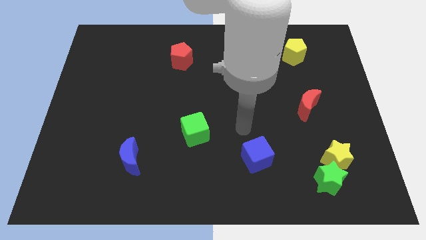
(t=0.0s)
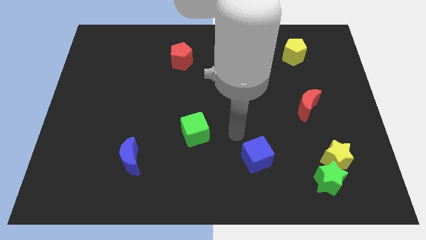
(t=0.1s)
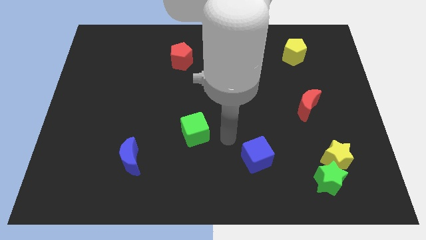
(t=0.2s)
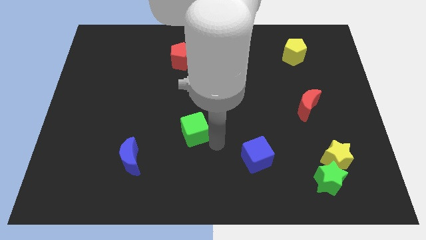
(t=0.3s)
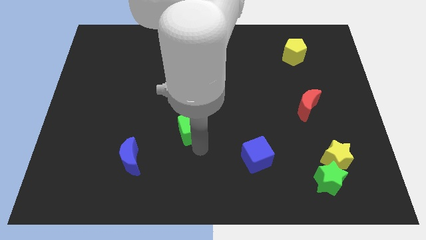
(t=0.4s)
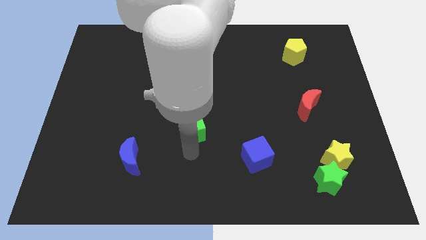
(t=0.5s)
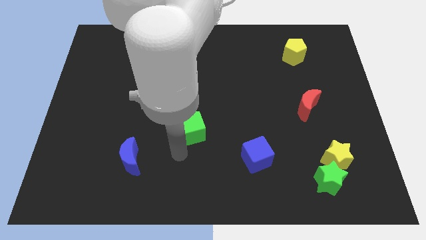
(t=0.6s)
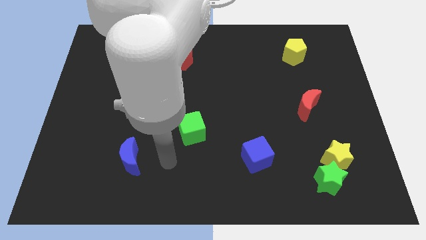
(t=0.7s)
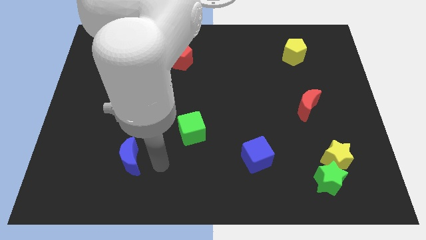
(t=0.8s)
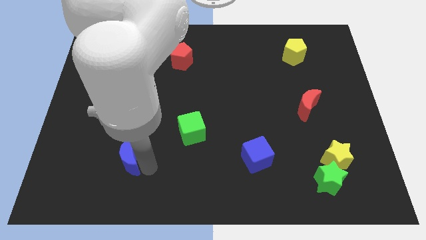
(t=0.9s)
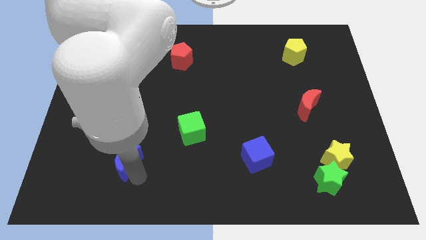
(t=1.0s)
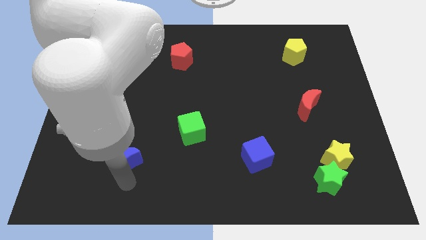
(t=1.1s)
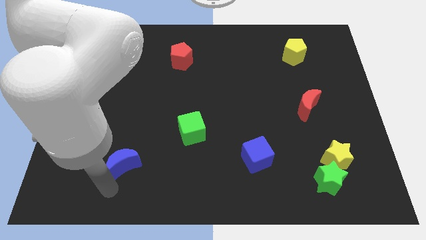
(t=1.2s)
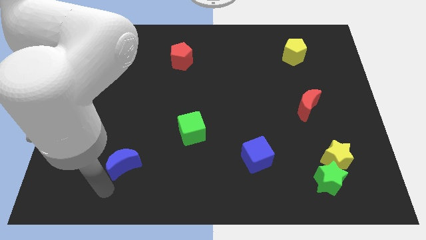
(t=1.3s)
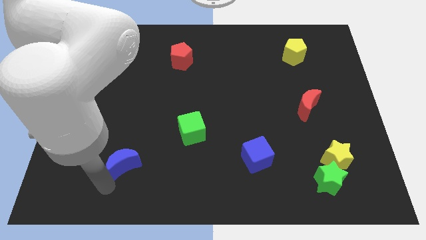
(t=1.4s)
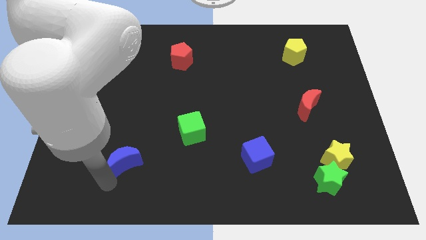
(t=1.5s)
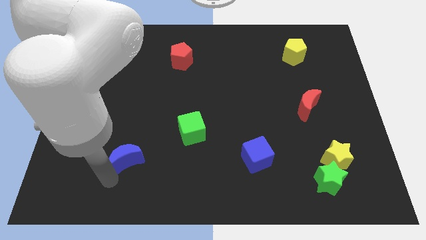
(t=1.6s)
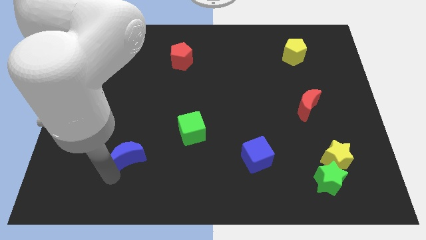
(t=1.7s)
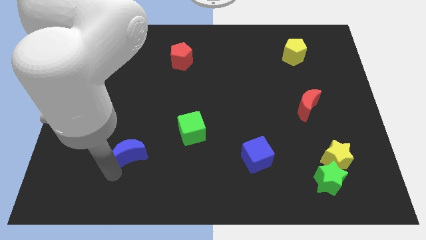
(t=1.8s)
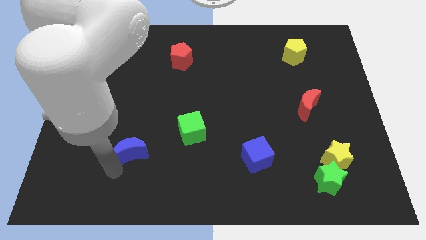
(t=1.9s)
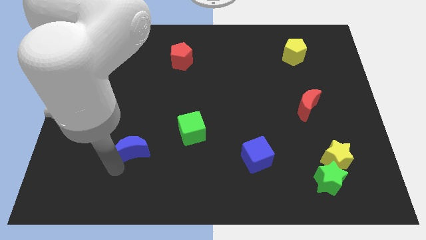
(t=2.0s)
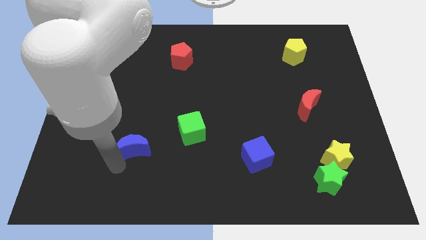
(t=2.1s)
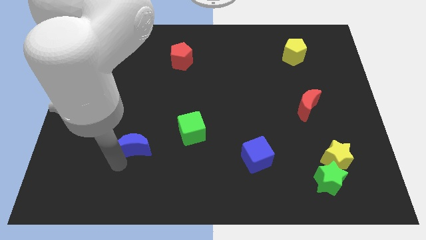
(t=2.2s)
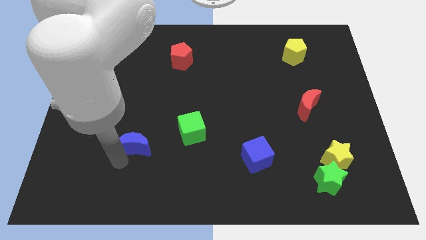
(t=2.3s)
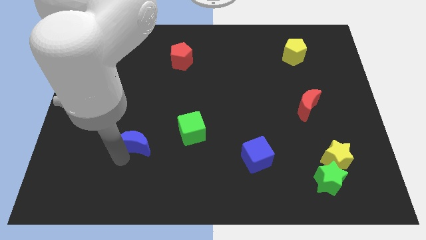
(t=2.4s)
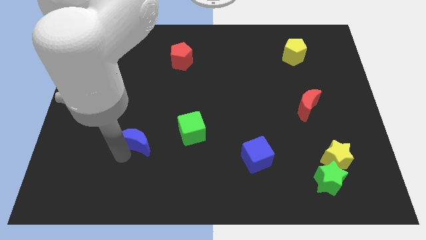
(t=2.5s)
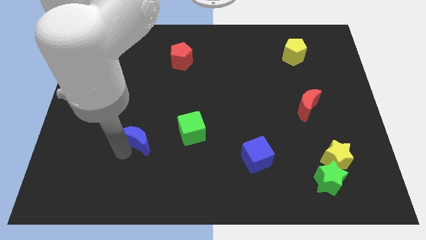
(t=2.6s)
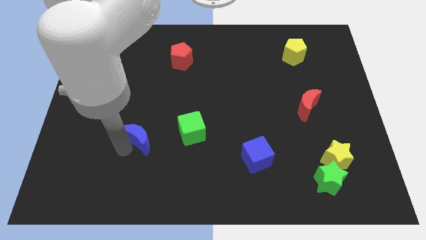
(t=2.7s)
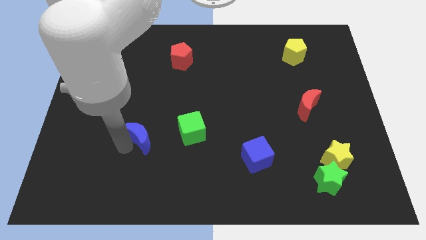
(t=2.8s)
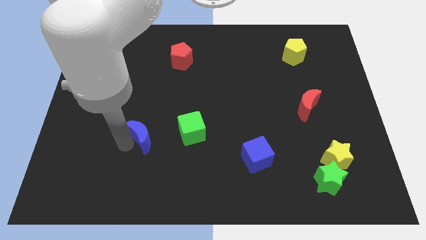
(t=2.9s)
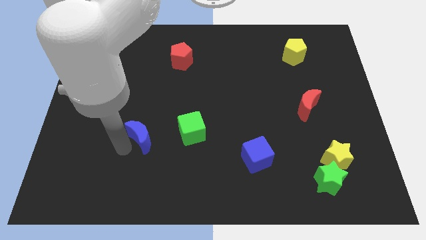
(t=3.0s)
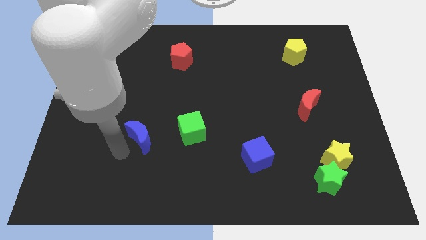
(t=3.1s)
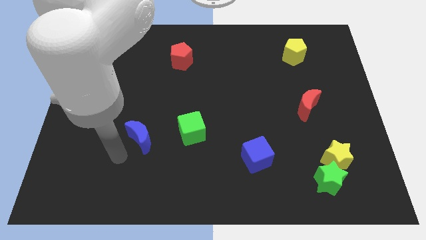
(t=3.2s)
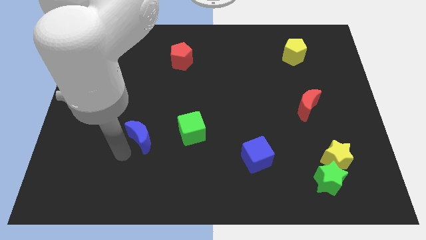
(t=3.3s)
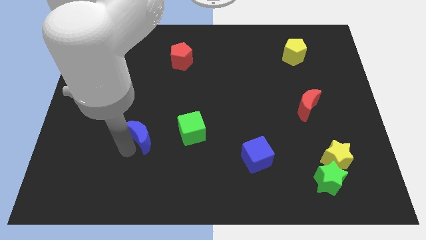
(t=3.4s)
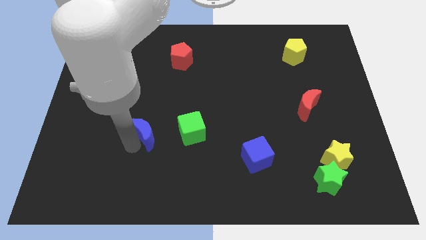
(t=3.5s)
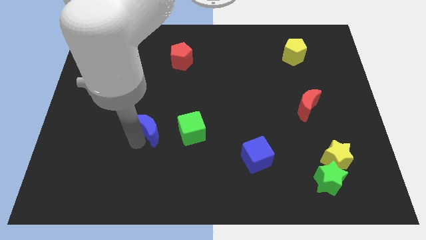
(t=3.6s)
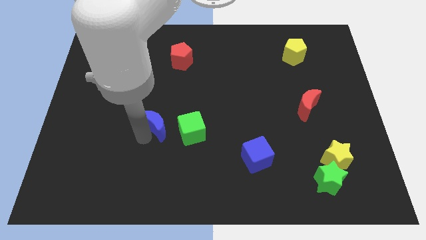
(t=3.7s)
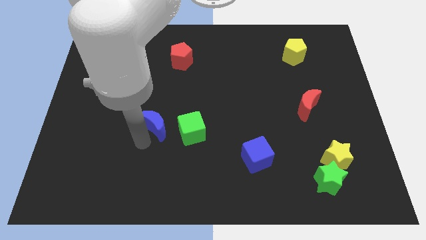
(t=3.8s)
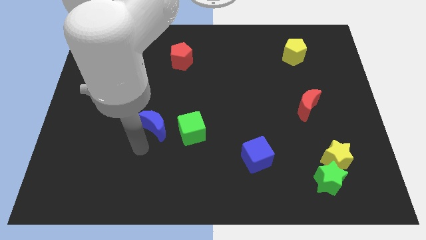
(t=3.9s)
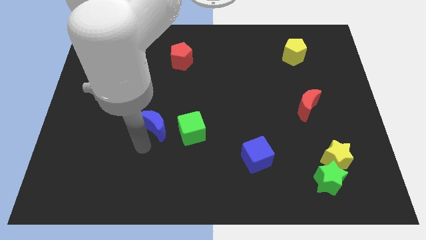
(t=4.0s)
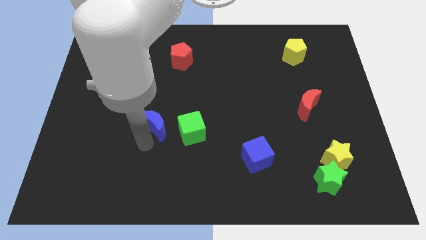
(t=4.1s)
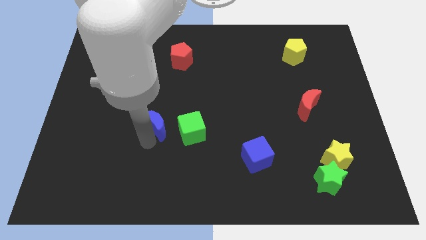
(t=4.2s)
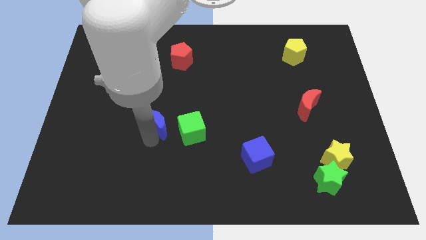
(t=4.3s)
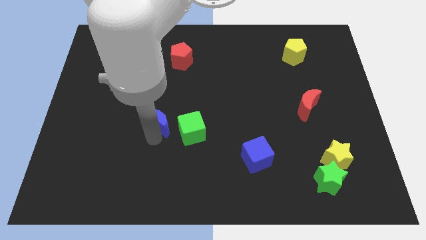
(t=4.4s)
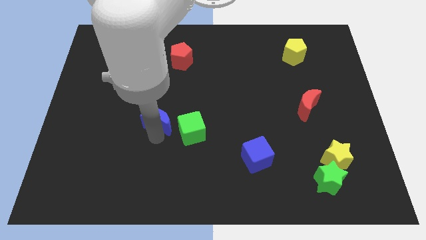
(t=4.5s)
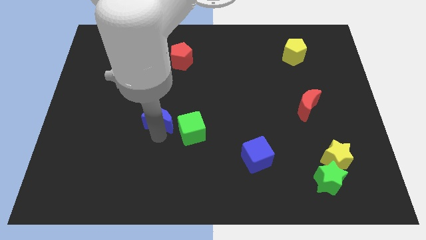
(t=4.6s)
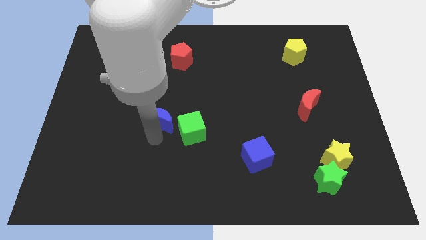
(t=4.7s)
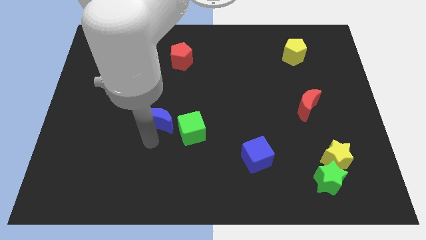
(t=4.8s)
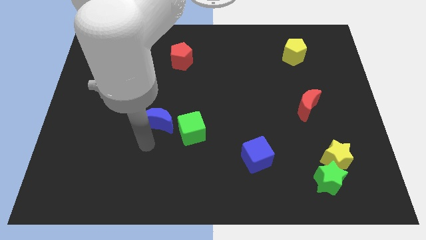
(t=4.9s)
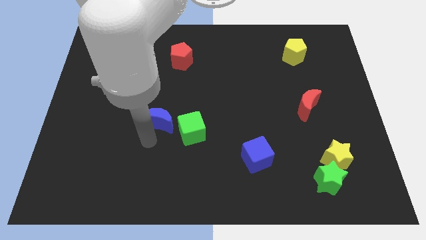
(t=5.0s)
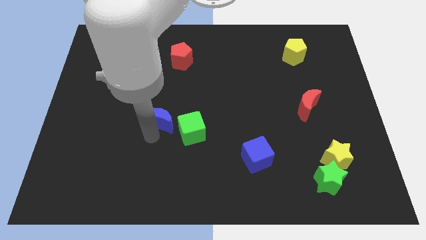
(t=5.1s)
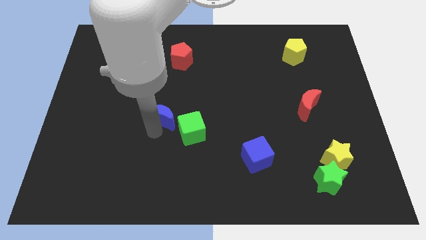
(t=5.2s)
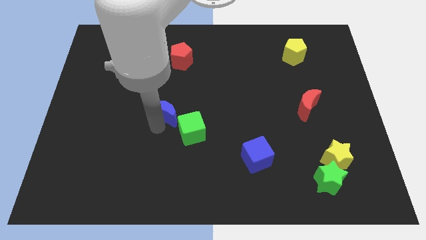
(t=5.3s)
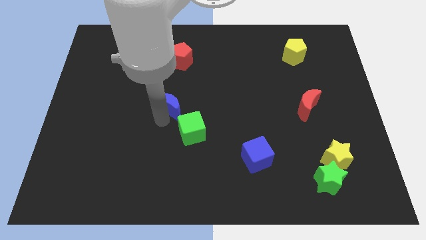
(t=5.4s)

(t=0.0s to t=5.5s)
put the blue moon to the bottom side of the red pentagon

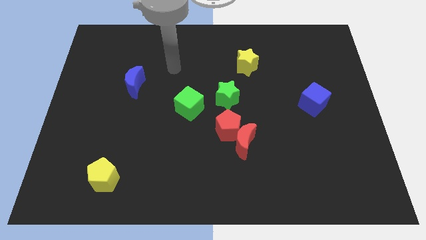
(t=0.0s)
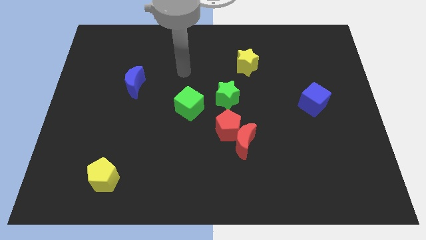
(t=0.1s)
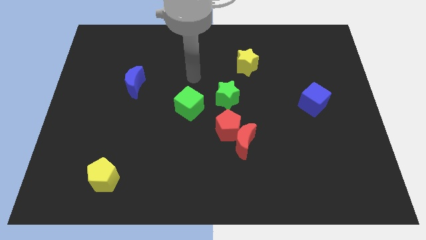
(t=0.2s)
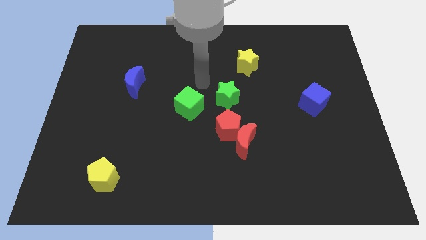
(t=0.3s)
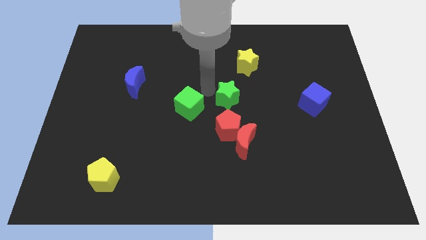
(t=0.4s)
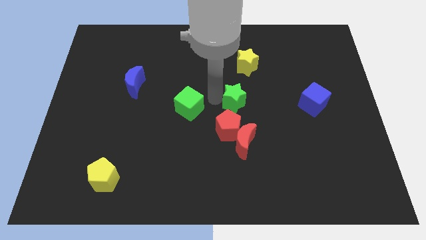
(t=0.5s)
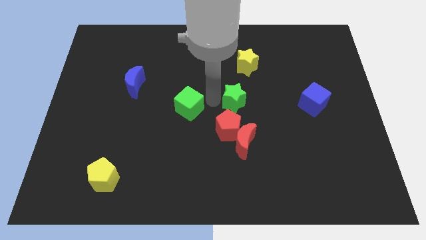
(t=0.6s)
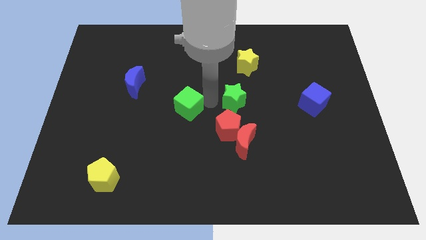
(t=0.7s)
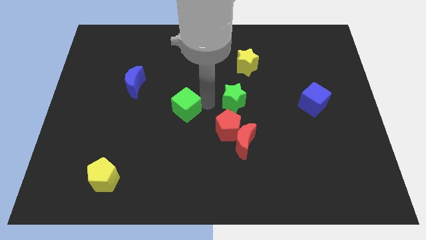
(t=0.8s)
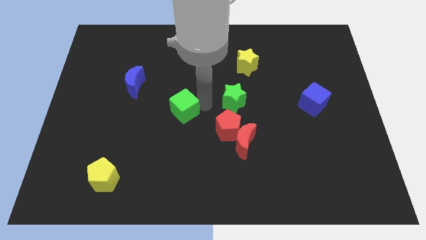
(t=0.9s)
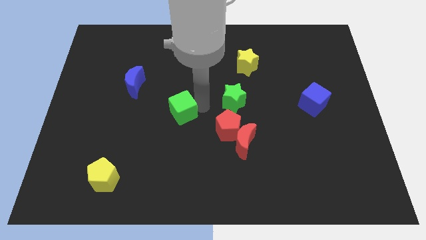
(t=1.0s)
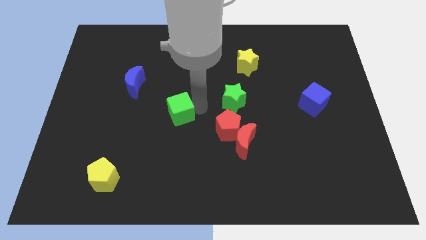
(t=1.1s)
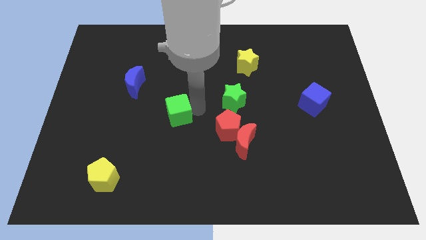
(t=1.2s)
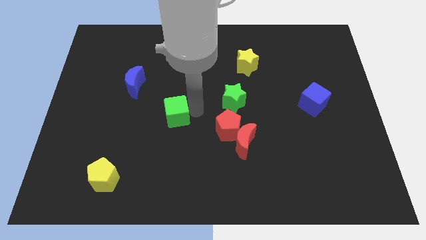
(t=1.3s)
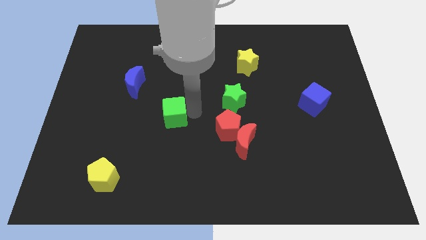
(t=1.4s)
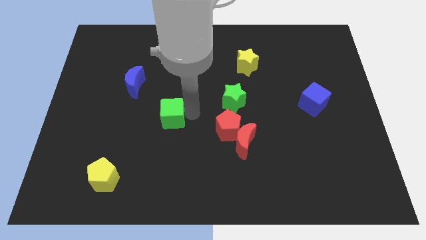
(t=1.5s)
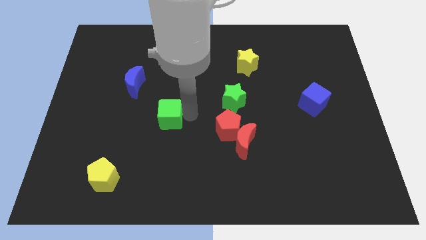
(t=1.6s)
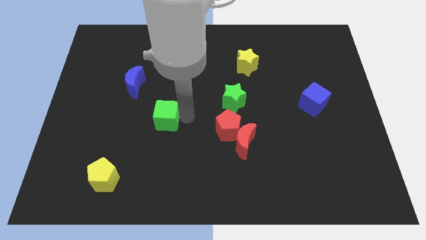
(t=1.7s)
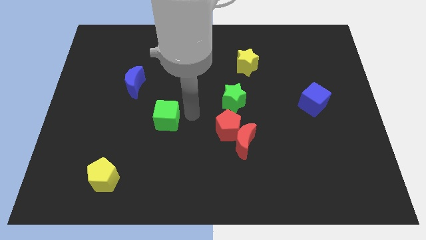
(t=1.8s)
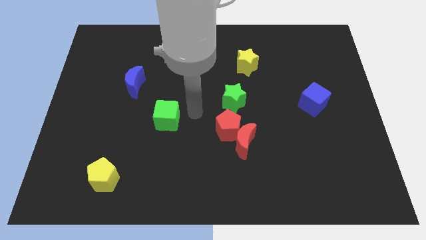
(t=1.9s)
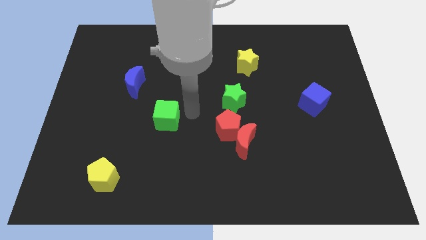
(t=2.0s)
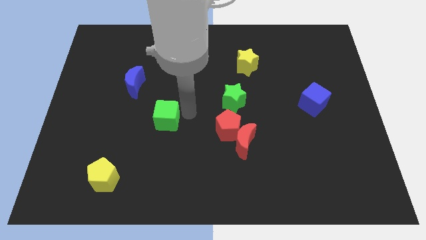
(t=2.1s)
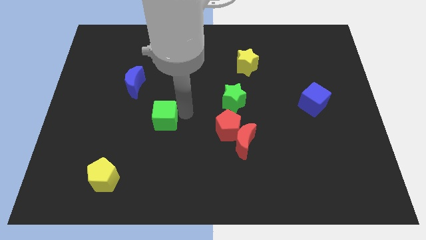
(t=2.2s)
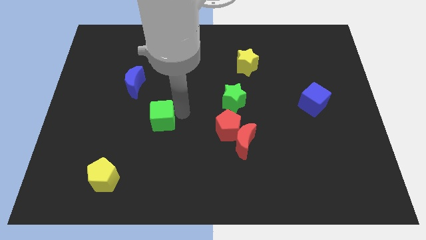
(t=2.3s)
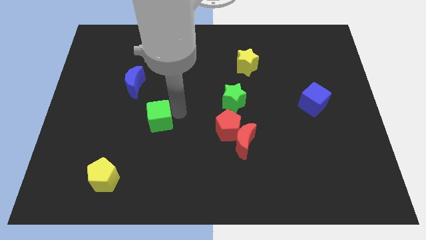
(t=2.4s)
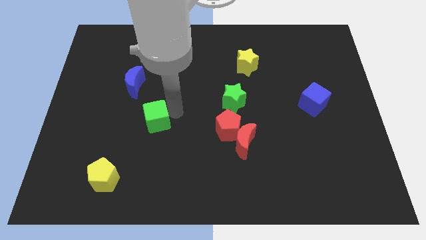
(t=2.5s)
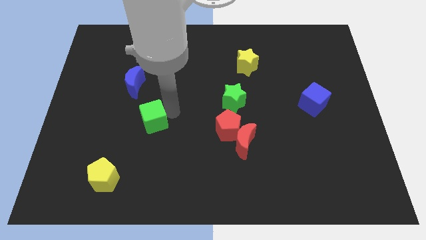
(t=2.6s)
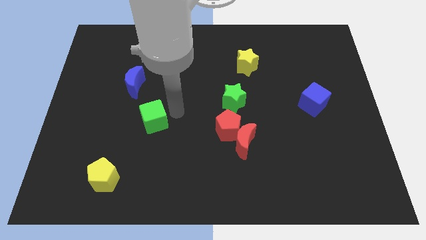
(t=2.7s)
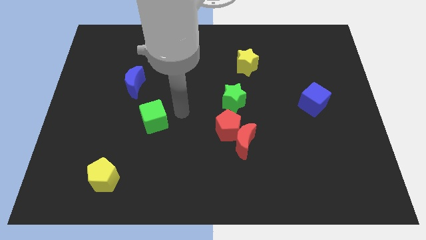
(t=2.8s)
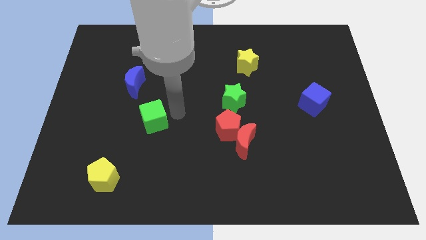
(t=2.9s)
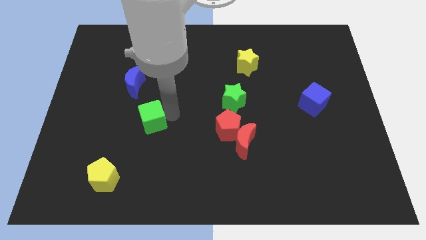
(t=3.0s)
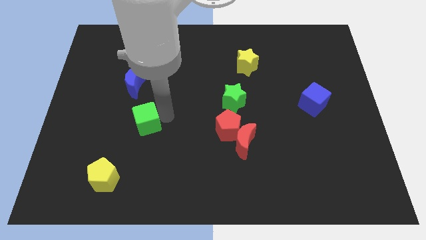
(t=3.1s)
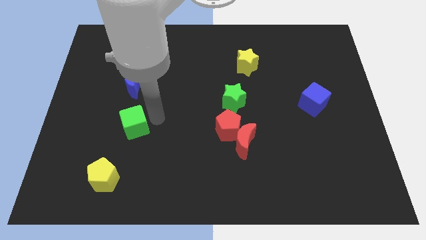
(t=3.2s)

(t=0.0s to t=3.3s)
push the green cube to the top of the yellow pentagon
